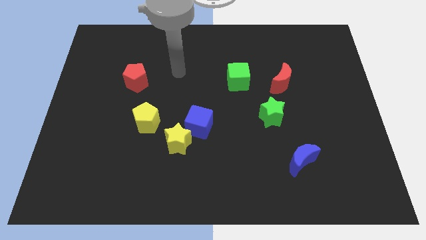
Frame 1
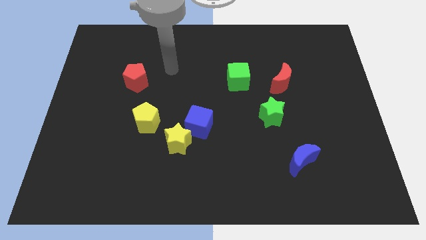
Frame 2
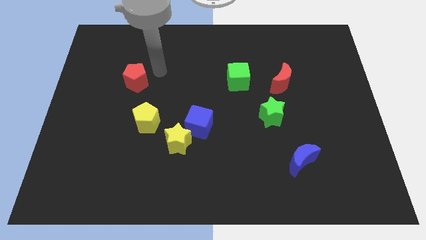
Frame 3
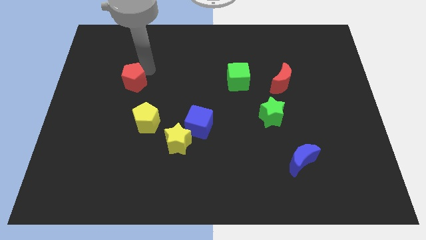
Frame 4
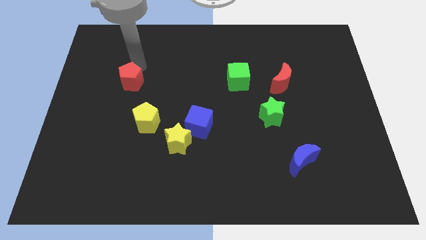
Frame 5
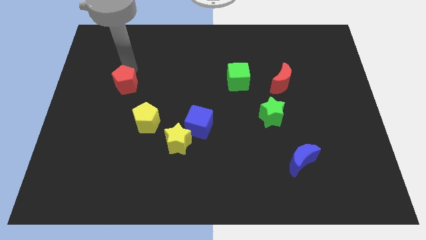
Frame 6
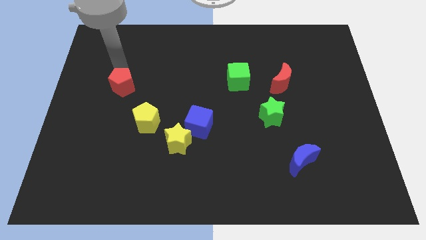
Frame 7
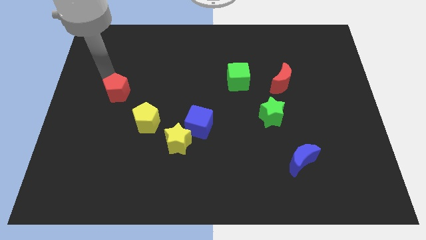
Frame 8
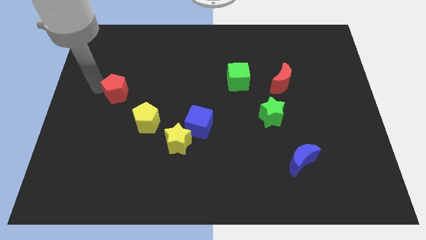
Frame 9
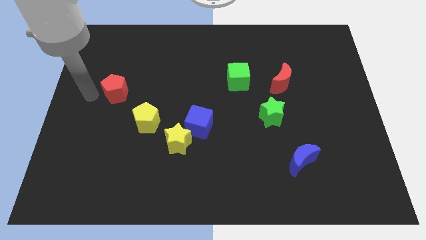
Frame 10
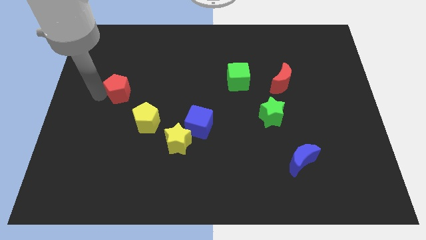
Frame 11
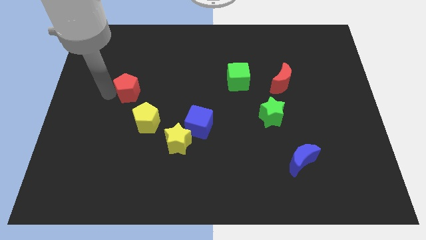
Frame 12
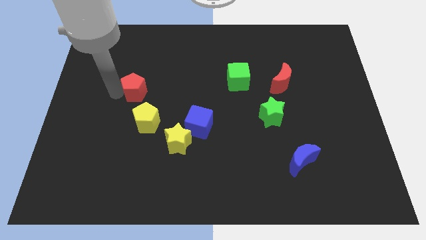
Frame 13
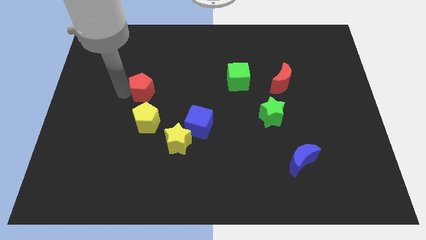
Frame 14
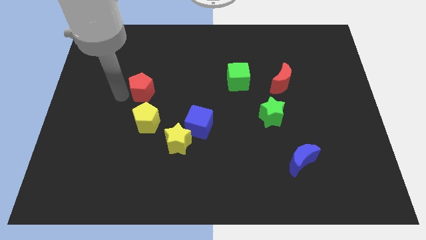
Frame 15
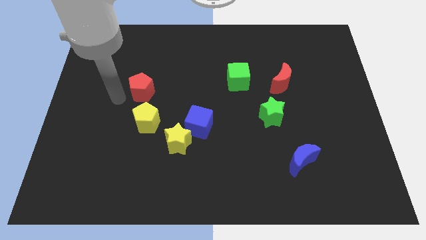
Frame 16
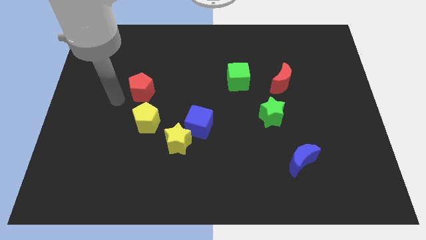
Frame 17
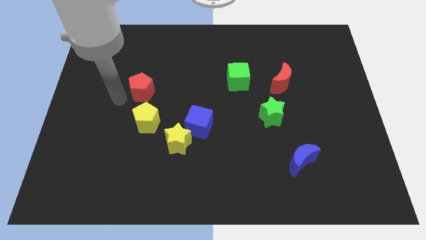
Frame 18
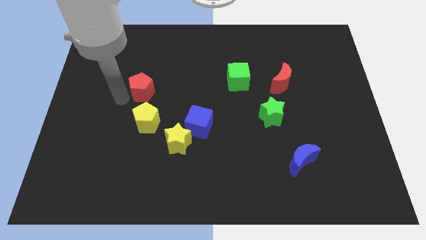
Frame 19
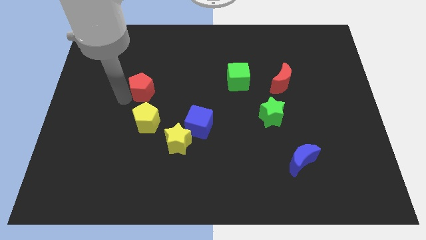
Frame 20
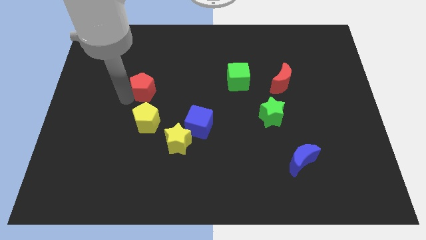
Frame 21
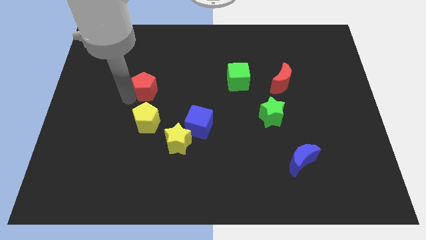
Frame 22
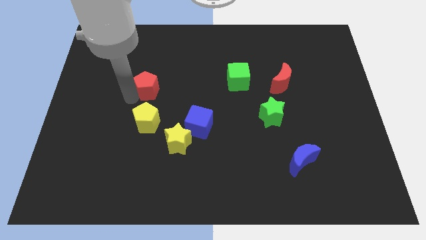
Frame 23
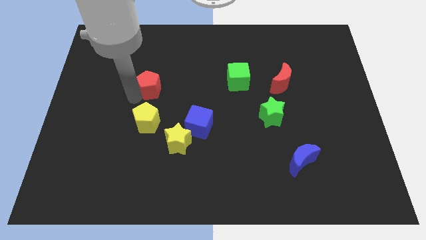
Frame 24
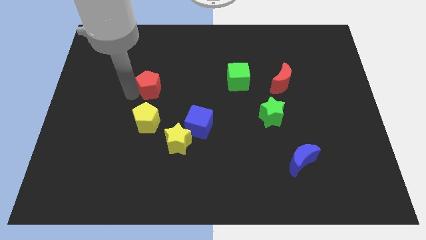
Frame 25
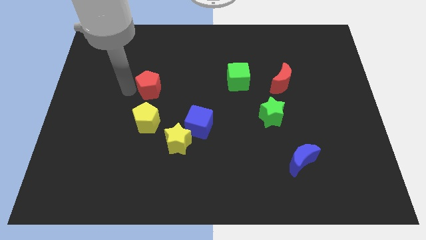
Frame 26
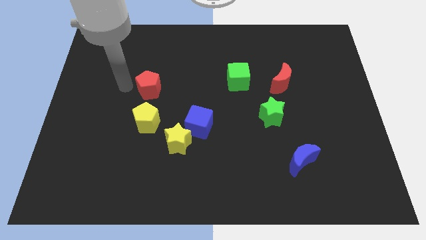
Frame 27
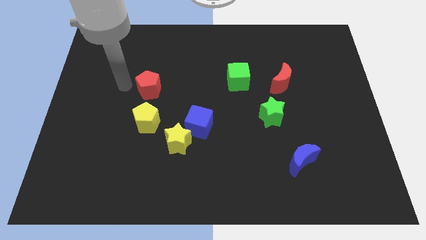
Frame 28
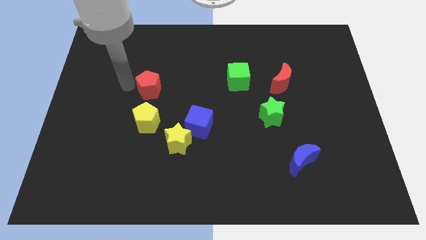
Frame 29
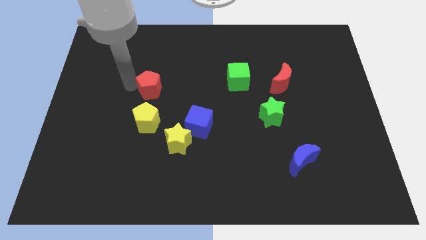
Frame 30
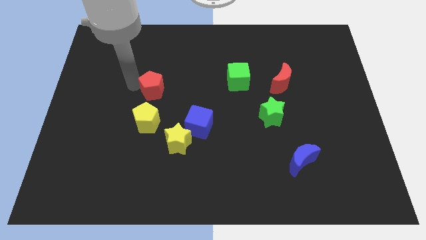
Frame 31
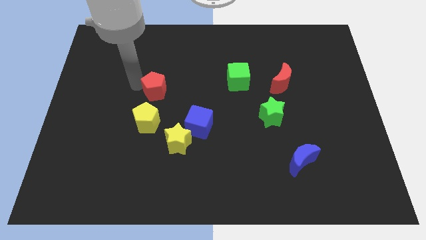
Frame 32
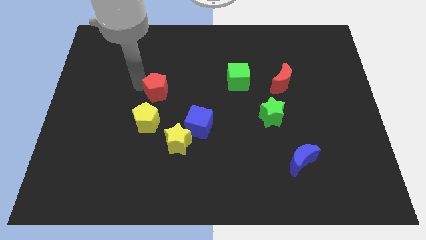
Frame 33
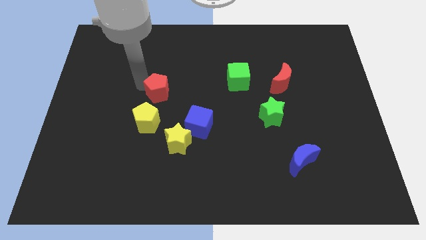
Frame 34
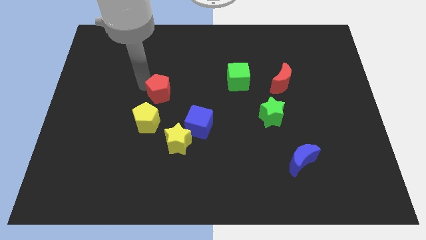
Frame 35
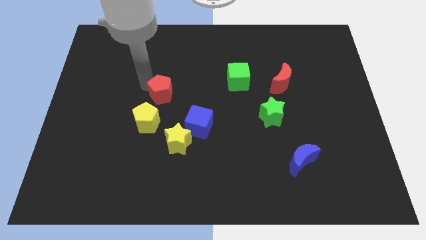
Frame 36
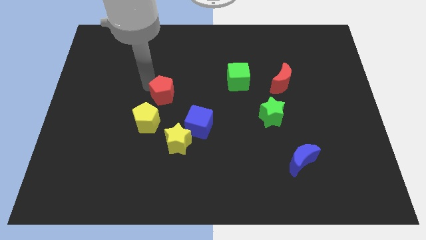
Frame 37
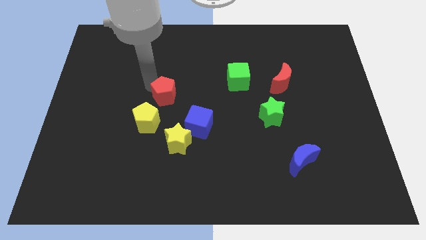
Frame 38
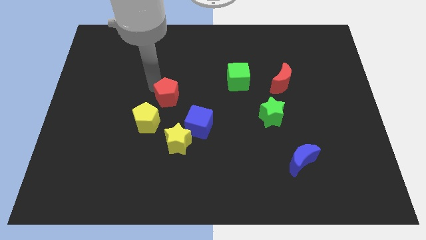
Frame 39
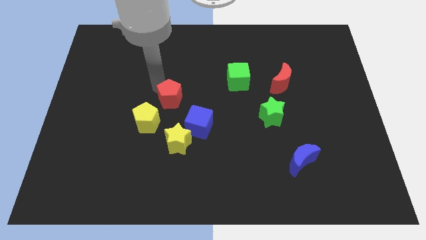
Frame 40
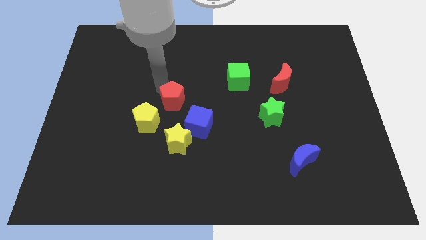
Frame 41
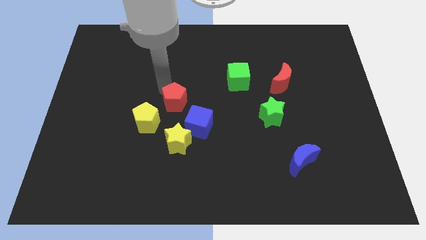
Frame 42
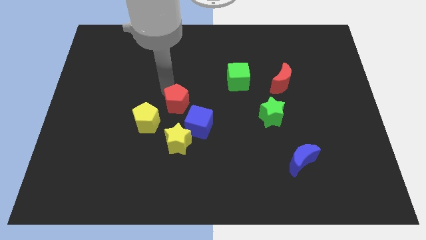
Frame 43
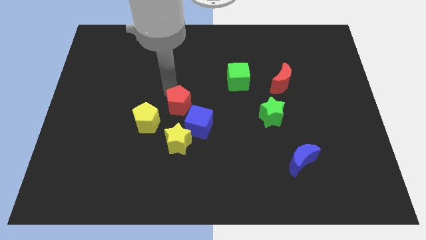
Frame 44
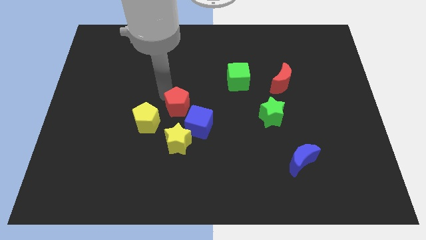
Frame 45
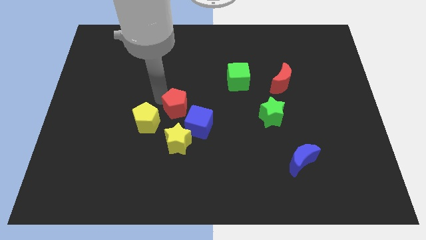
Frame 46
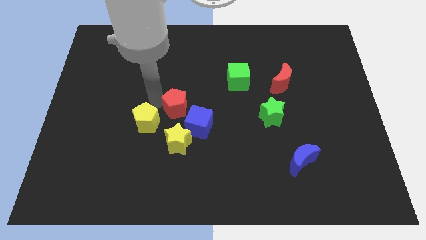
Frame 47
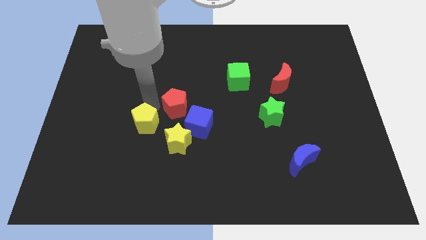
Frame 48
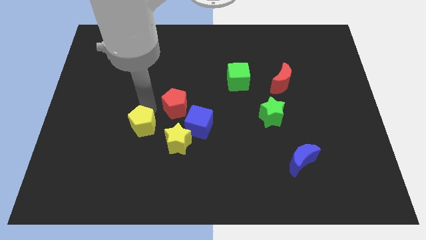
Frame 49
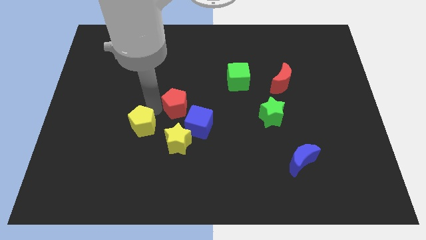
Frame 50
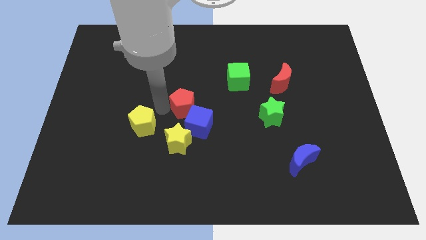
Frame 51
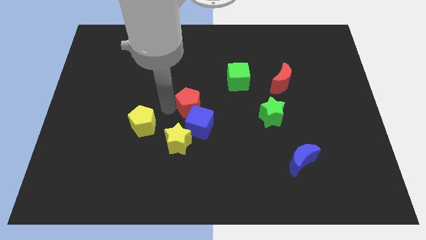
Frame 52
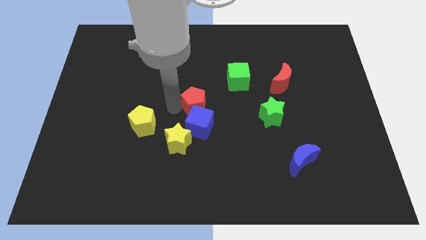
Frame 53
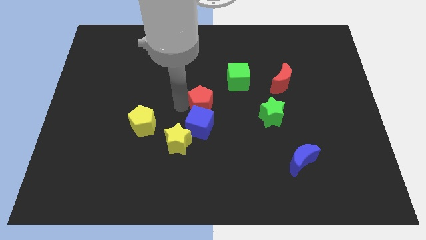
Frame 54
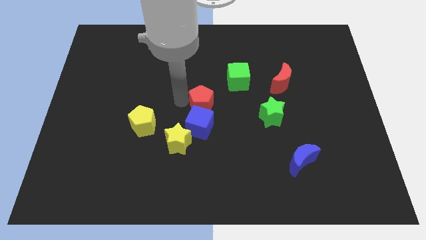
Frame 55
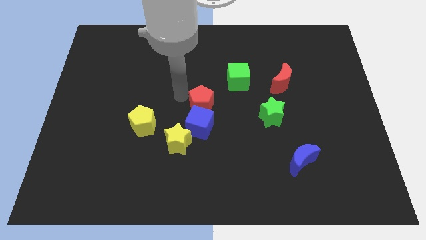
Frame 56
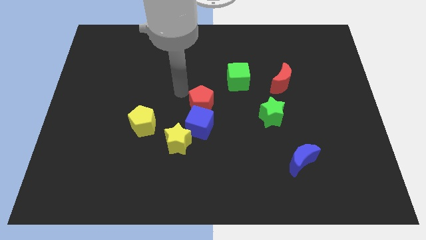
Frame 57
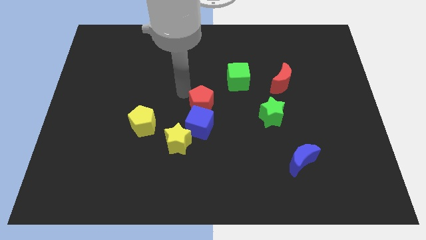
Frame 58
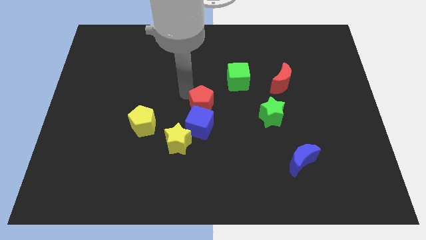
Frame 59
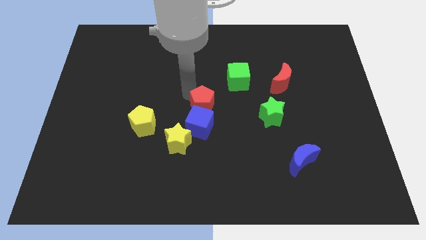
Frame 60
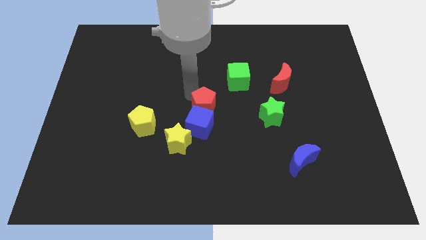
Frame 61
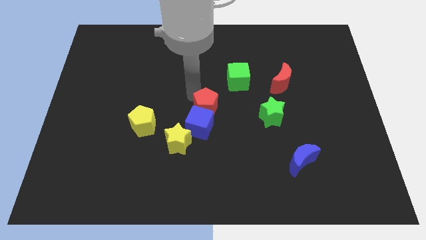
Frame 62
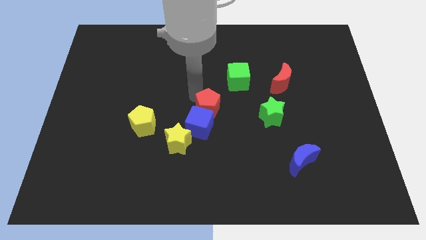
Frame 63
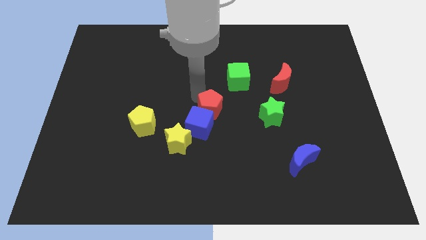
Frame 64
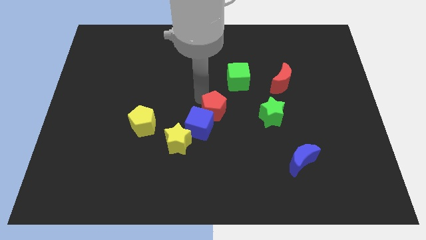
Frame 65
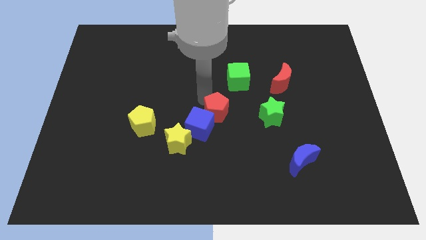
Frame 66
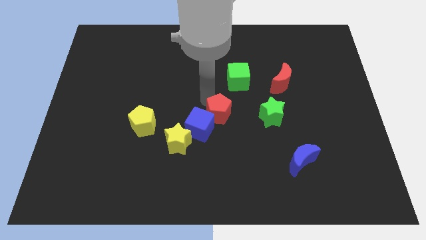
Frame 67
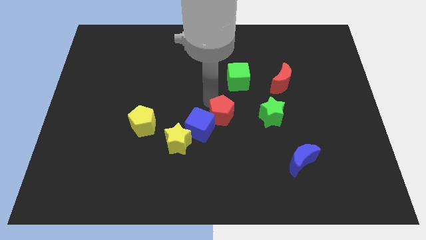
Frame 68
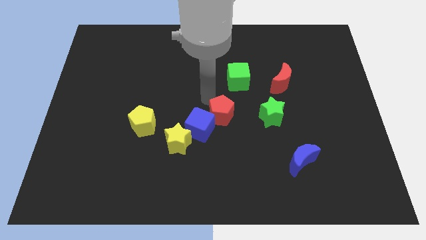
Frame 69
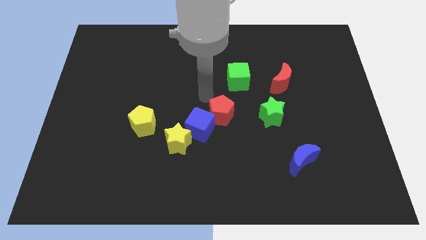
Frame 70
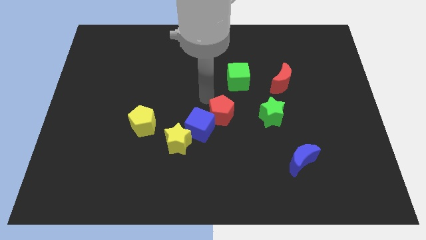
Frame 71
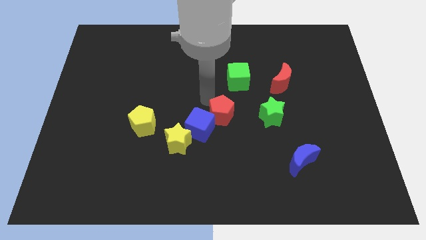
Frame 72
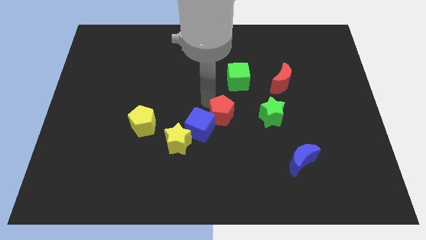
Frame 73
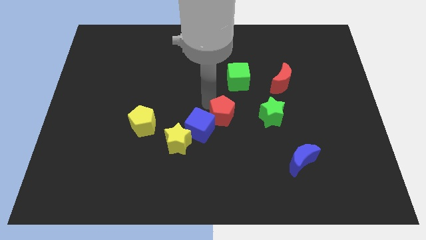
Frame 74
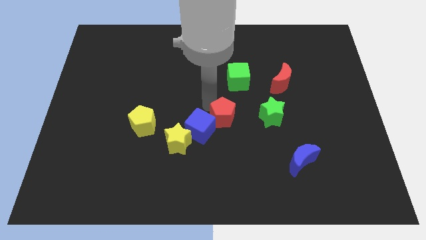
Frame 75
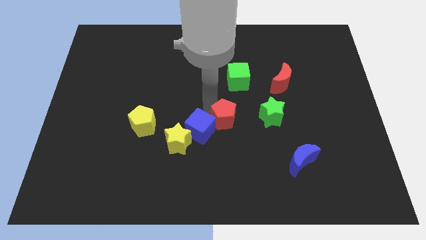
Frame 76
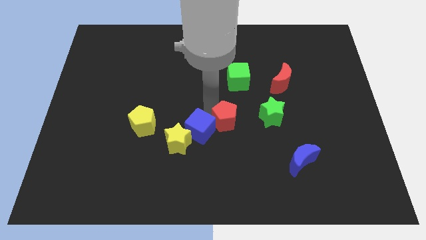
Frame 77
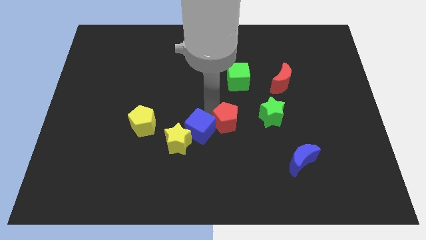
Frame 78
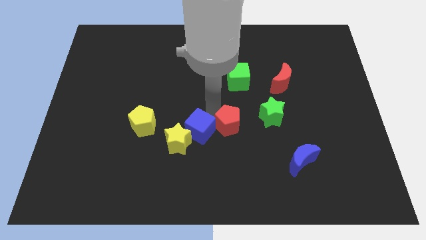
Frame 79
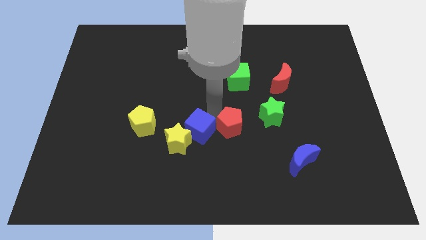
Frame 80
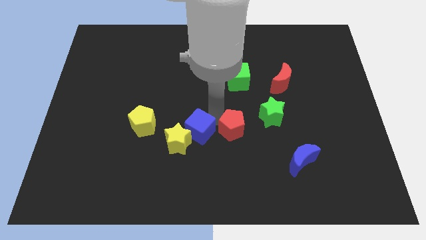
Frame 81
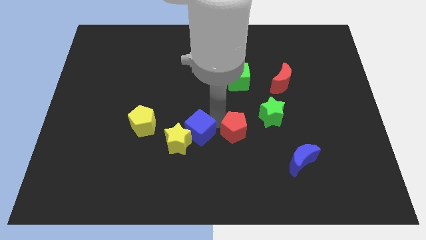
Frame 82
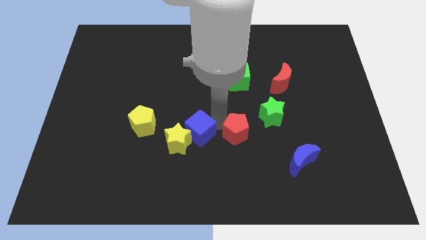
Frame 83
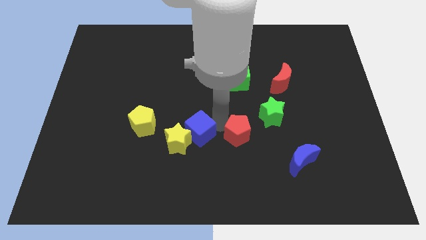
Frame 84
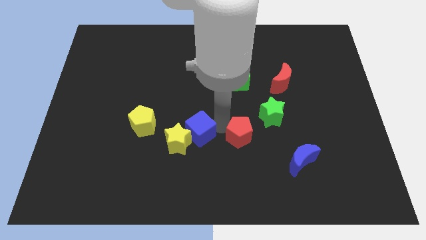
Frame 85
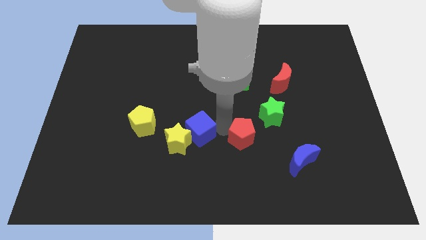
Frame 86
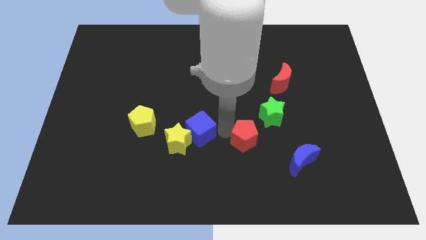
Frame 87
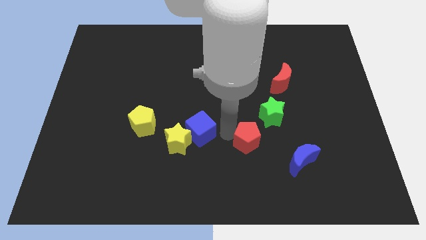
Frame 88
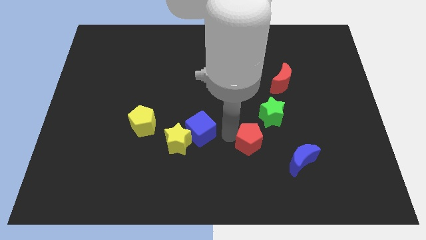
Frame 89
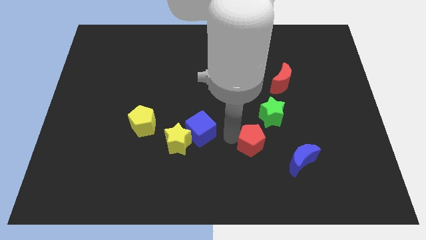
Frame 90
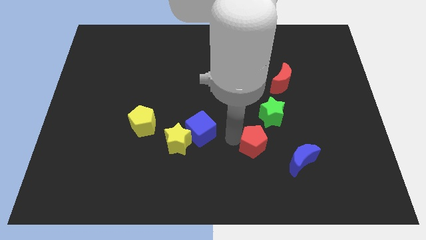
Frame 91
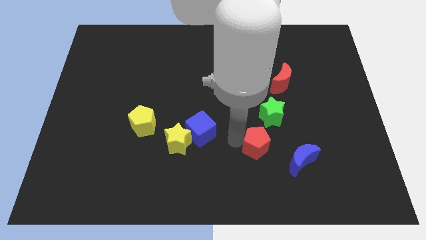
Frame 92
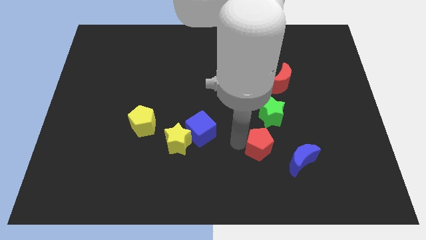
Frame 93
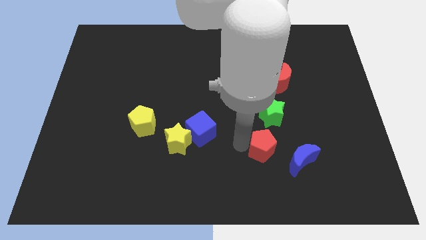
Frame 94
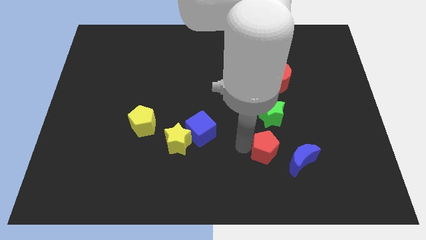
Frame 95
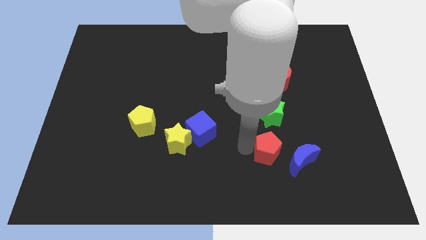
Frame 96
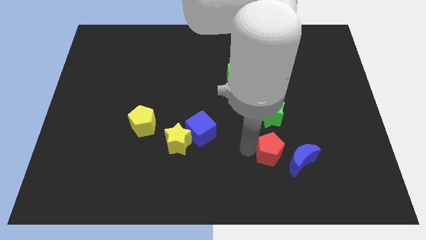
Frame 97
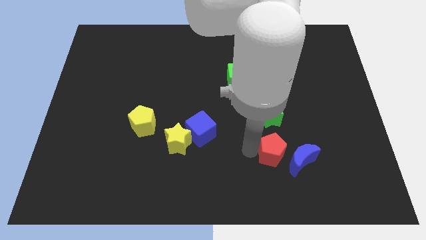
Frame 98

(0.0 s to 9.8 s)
put the red pentagon next to the blue moon
